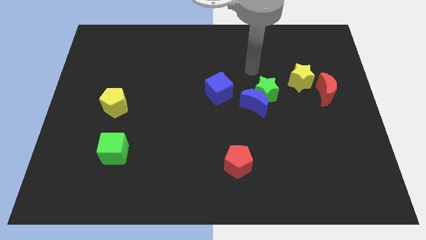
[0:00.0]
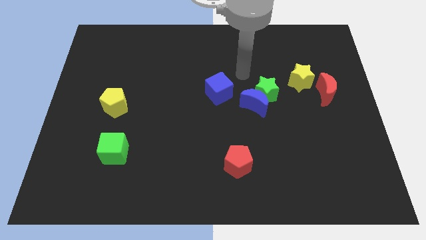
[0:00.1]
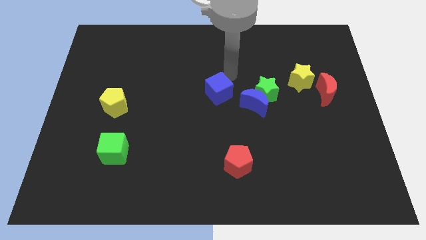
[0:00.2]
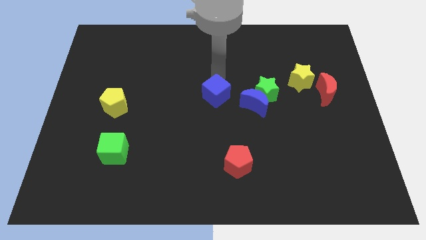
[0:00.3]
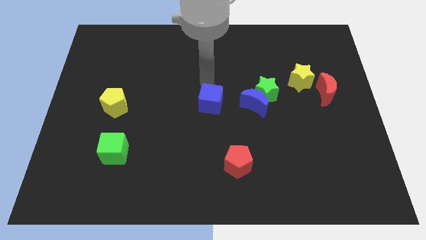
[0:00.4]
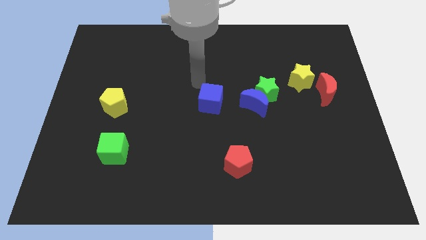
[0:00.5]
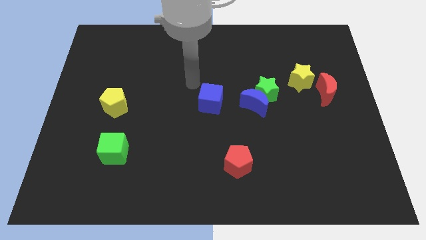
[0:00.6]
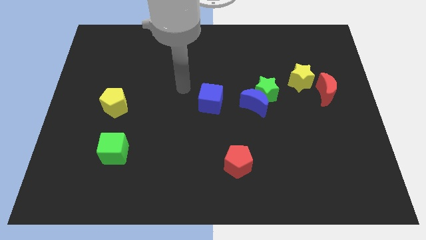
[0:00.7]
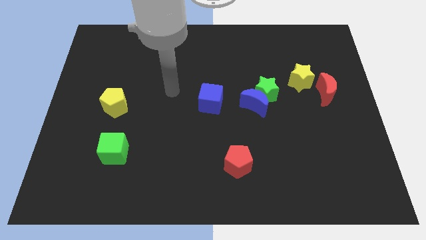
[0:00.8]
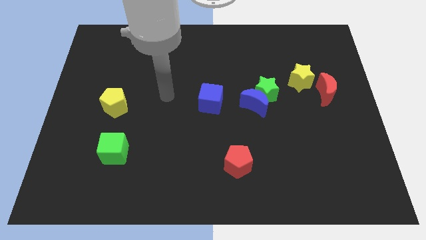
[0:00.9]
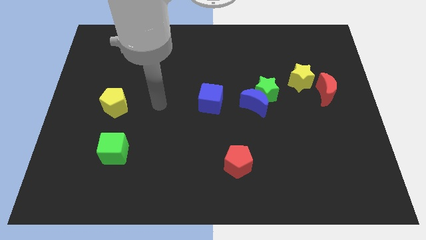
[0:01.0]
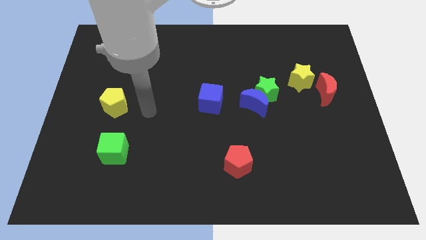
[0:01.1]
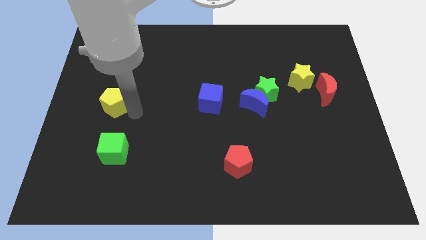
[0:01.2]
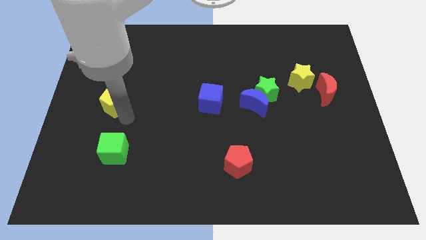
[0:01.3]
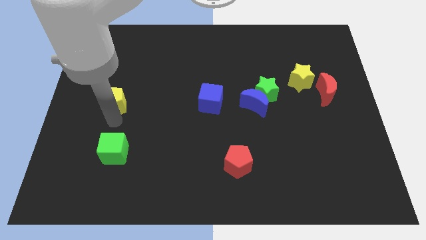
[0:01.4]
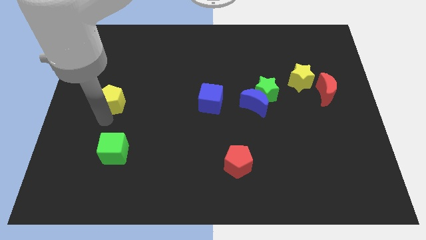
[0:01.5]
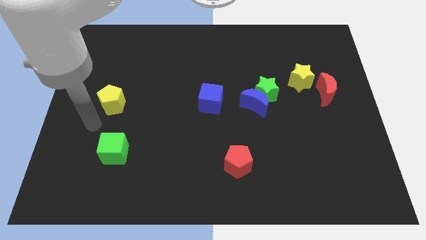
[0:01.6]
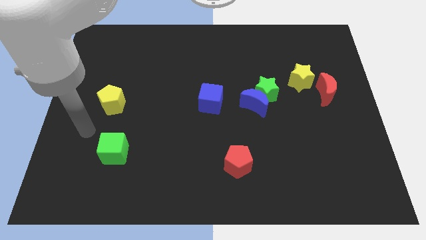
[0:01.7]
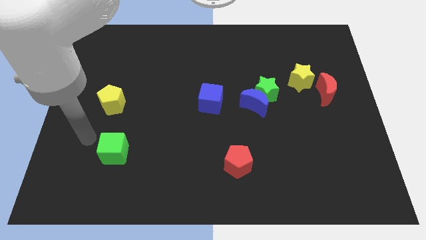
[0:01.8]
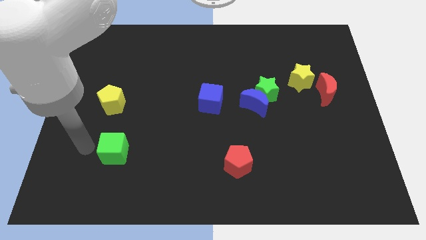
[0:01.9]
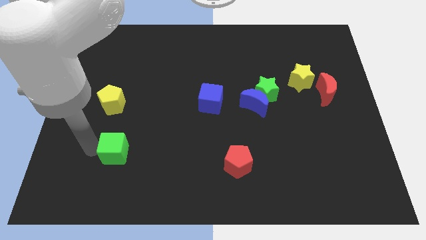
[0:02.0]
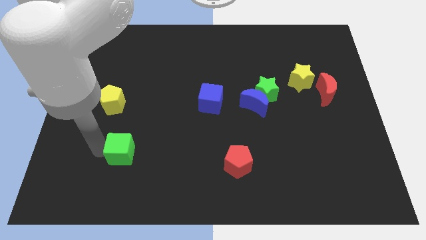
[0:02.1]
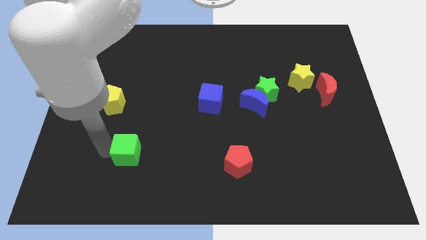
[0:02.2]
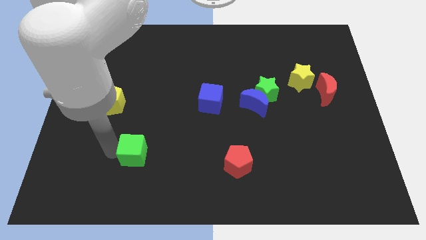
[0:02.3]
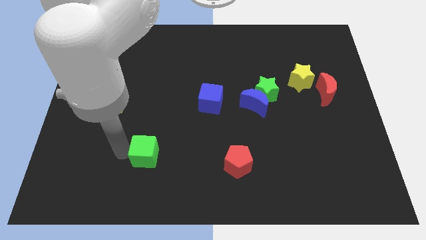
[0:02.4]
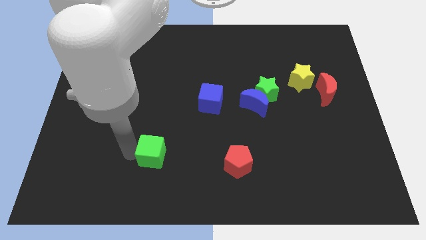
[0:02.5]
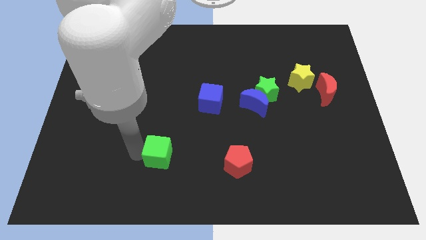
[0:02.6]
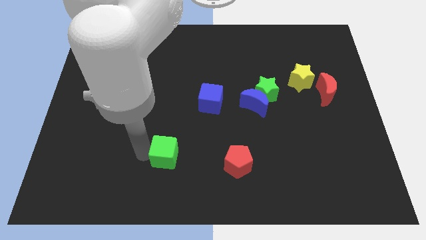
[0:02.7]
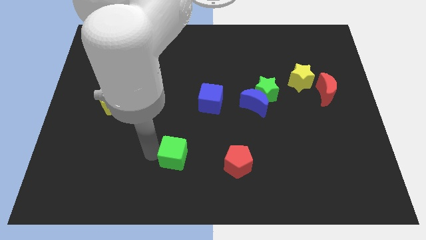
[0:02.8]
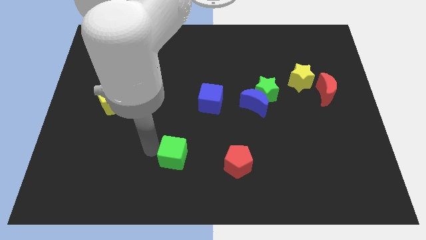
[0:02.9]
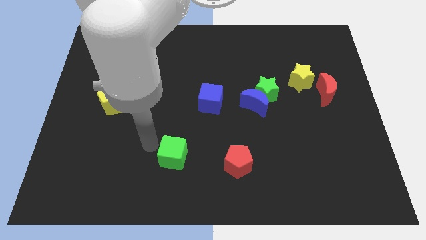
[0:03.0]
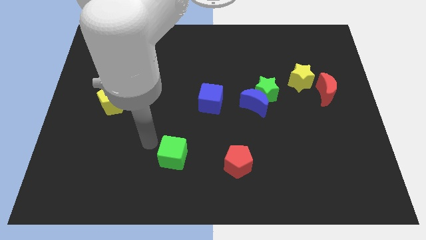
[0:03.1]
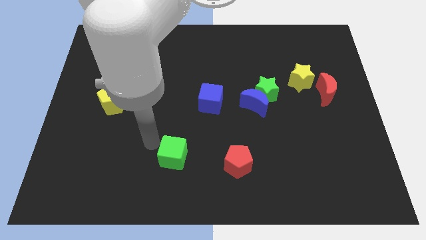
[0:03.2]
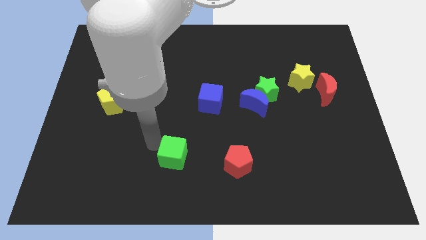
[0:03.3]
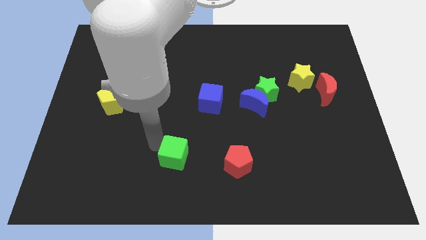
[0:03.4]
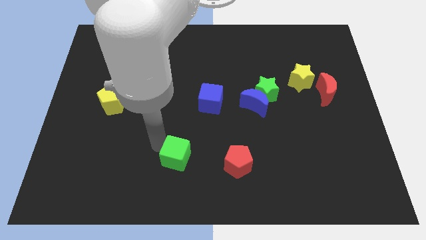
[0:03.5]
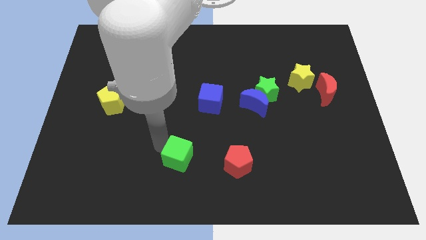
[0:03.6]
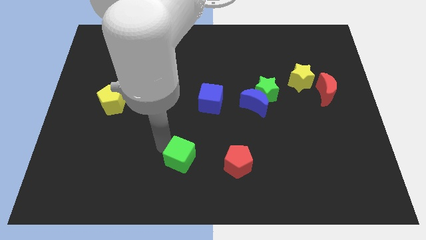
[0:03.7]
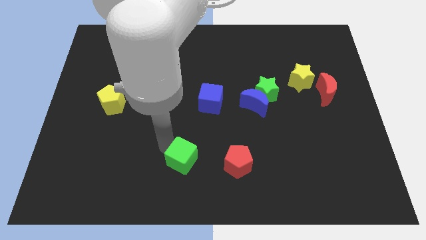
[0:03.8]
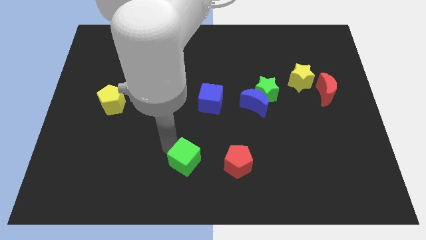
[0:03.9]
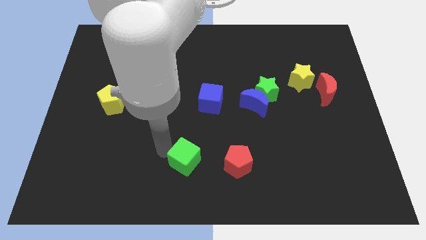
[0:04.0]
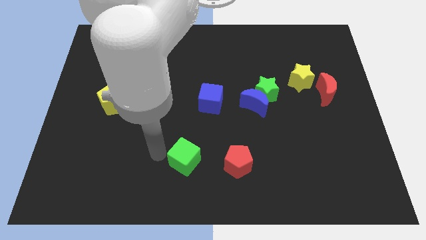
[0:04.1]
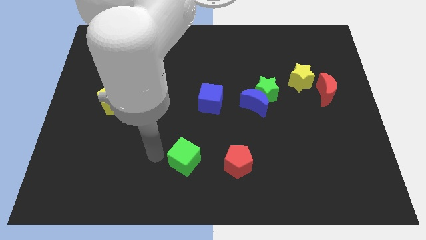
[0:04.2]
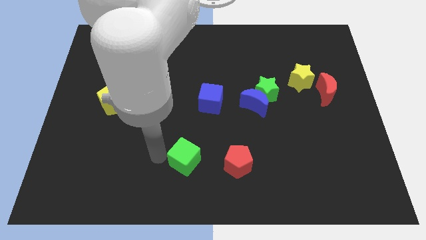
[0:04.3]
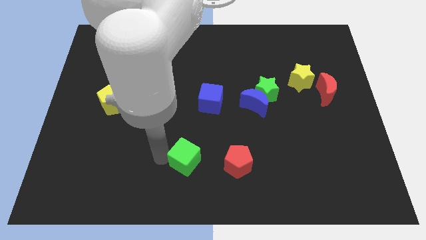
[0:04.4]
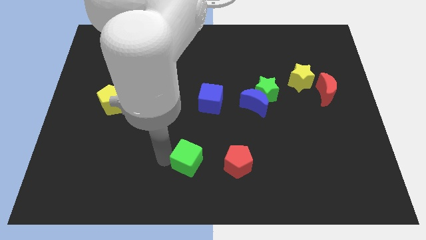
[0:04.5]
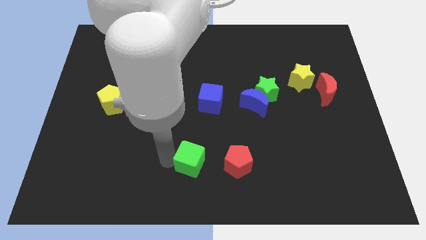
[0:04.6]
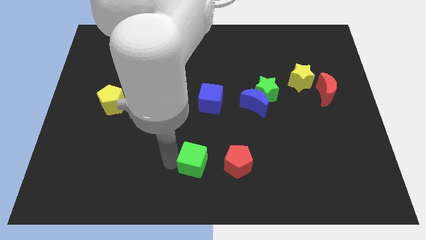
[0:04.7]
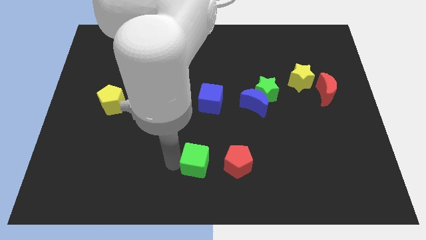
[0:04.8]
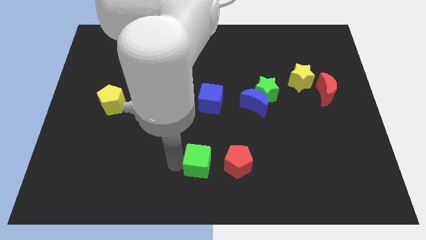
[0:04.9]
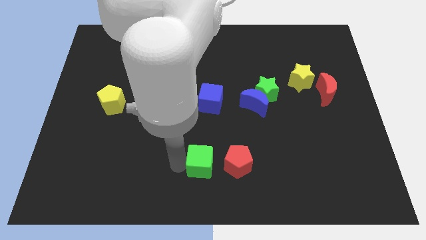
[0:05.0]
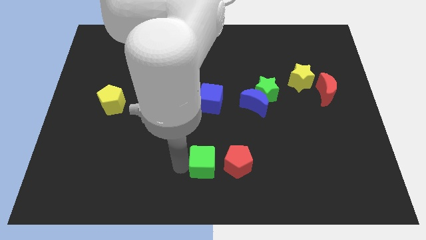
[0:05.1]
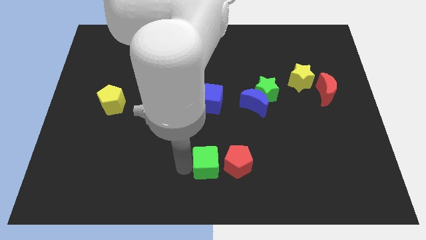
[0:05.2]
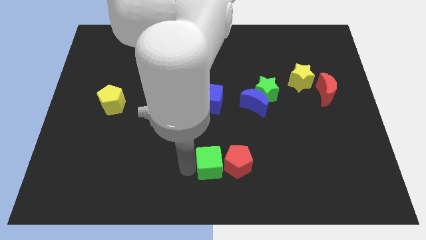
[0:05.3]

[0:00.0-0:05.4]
push the green cube to the red pentagon

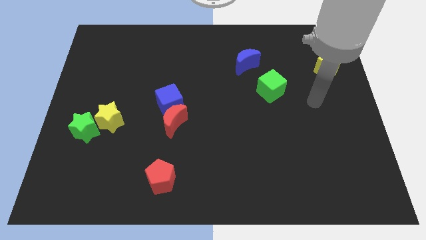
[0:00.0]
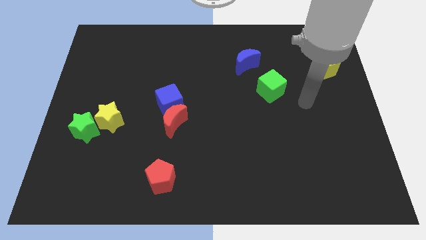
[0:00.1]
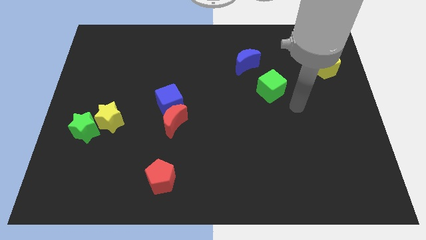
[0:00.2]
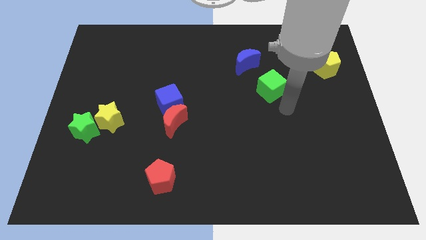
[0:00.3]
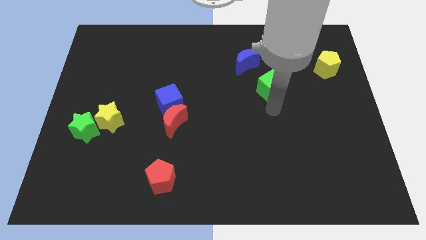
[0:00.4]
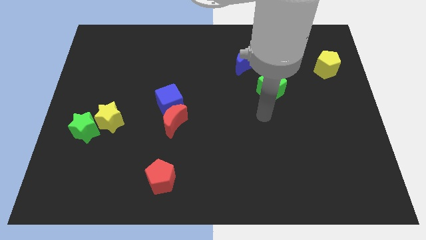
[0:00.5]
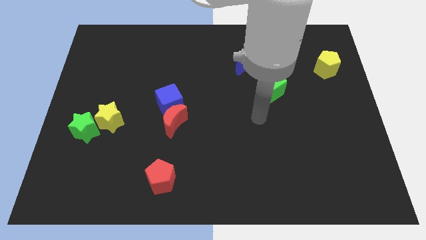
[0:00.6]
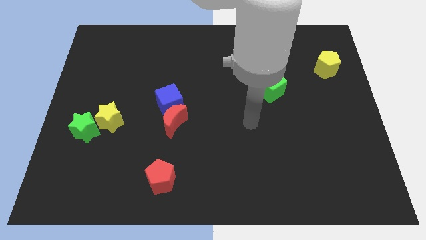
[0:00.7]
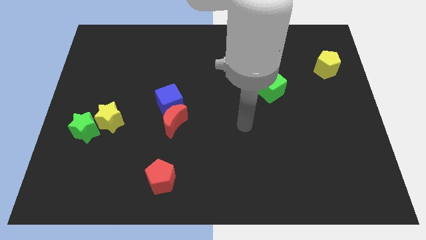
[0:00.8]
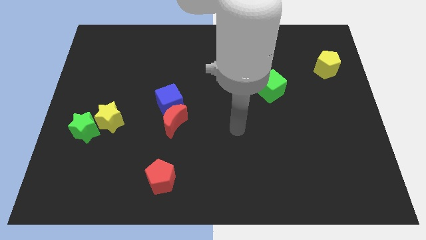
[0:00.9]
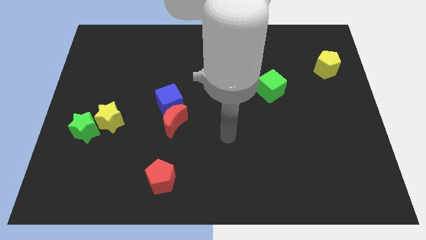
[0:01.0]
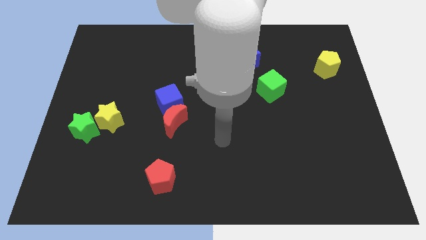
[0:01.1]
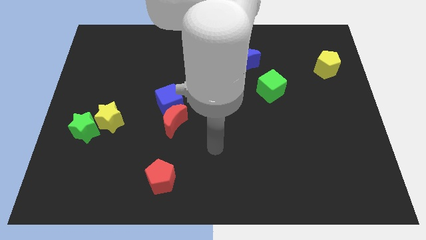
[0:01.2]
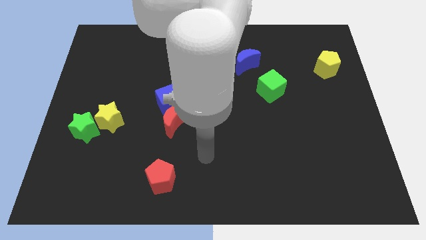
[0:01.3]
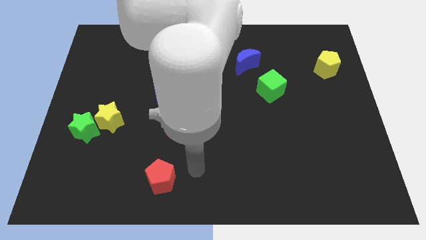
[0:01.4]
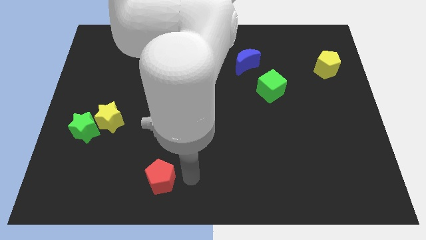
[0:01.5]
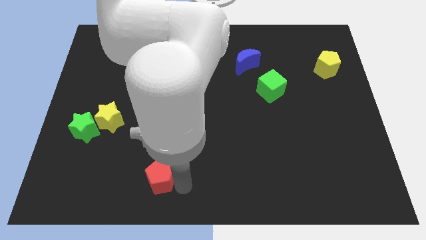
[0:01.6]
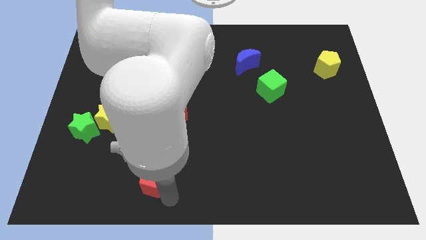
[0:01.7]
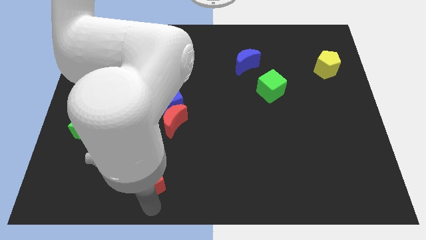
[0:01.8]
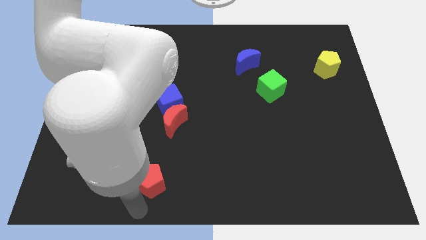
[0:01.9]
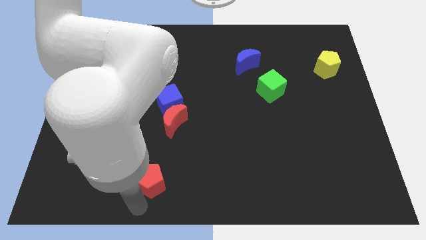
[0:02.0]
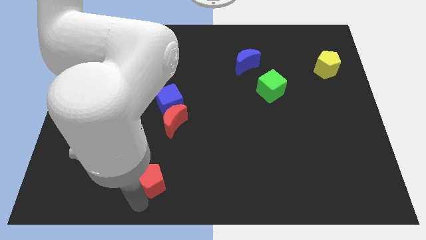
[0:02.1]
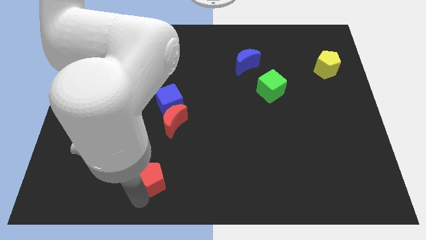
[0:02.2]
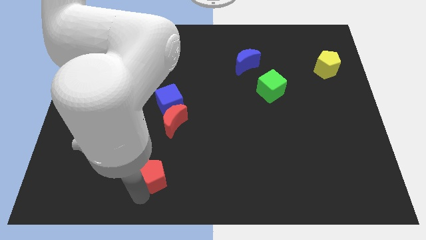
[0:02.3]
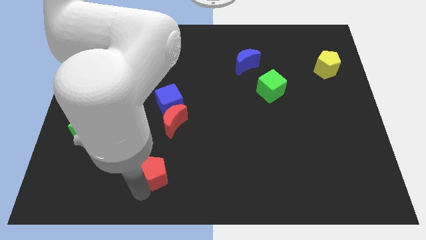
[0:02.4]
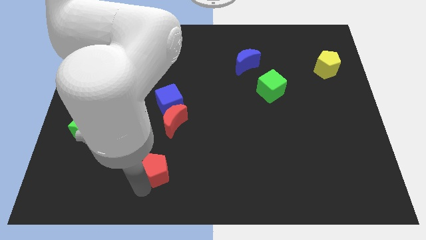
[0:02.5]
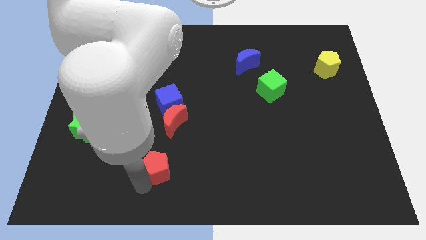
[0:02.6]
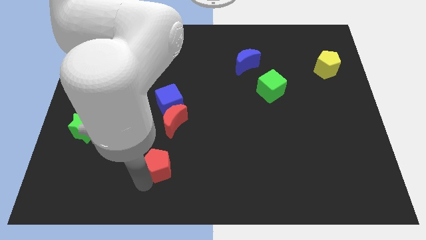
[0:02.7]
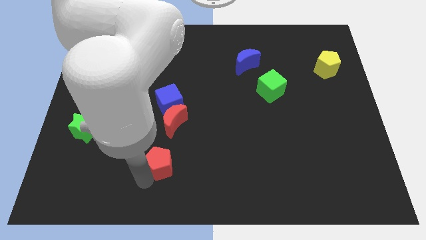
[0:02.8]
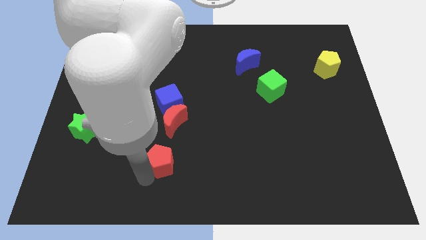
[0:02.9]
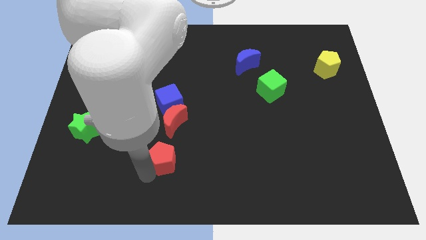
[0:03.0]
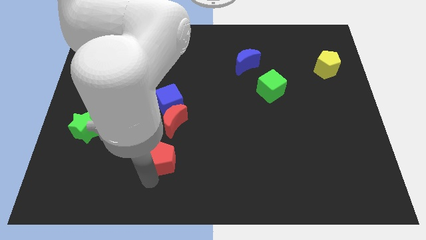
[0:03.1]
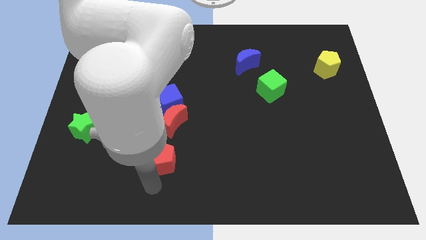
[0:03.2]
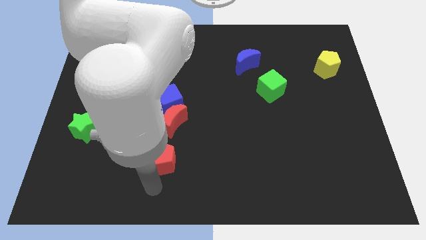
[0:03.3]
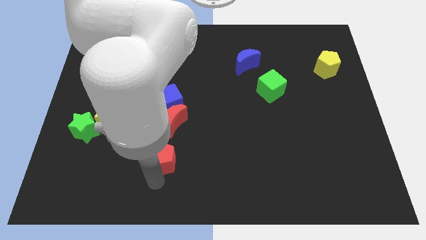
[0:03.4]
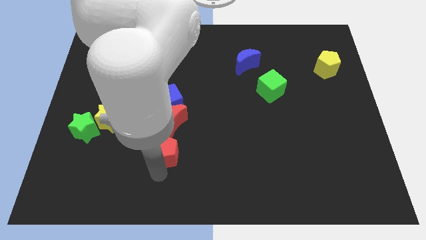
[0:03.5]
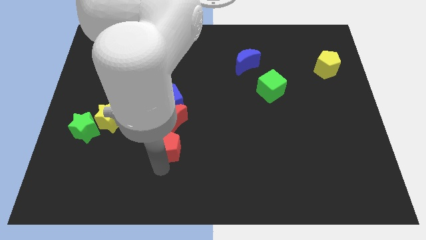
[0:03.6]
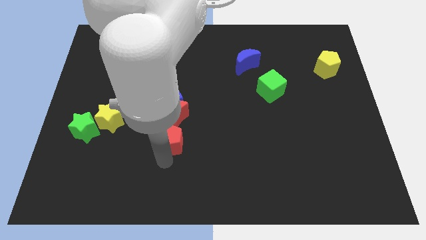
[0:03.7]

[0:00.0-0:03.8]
put the red pentagon to the red moon
